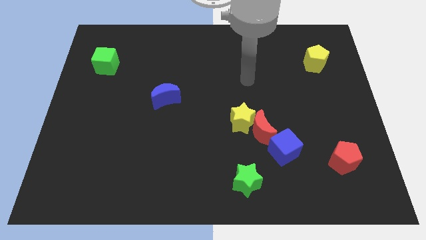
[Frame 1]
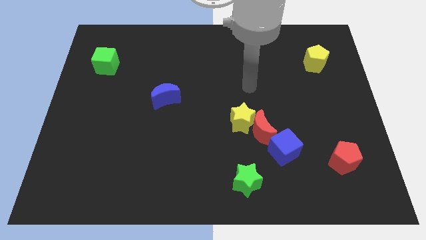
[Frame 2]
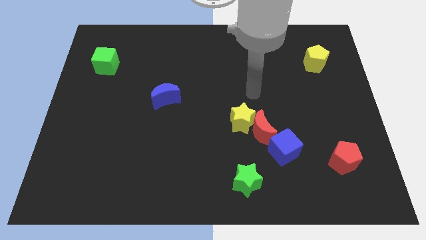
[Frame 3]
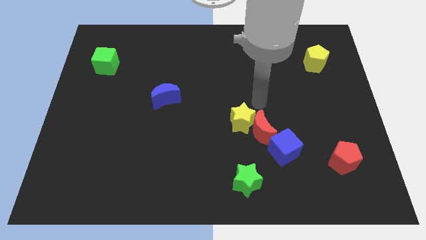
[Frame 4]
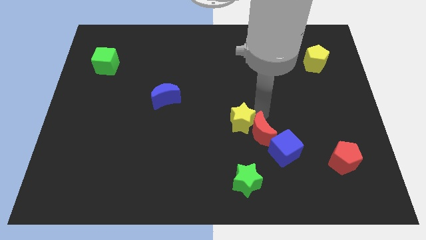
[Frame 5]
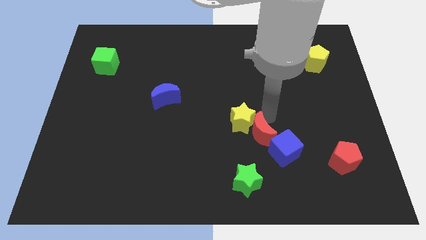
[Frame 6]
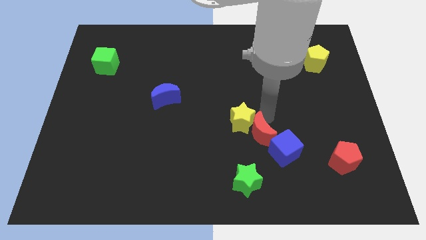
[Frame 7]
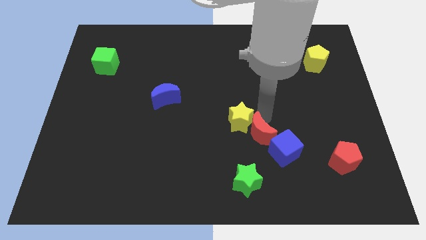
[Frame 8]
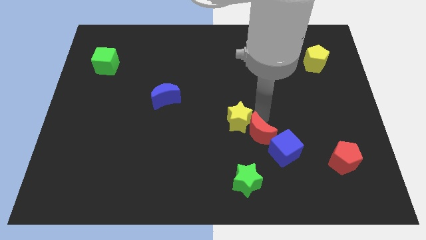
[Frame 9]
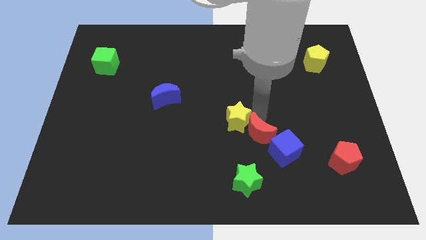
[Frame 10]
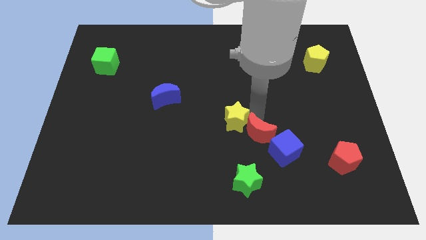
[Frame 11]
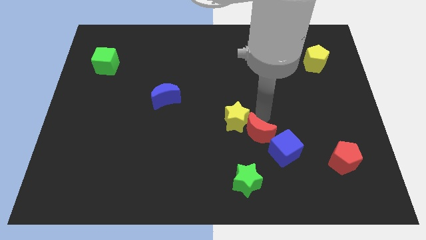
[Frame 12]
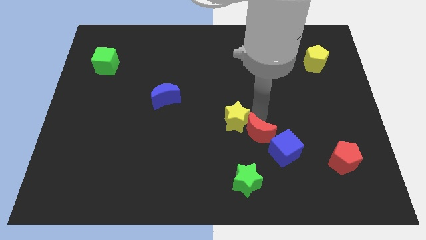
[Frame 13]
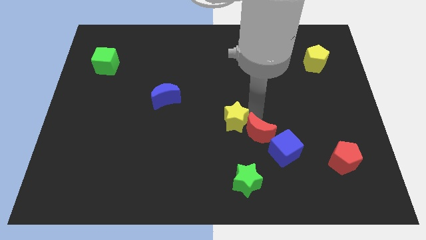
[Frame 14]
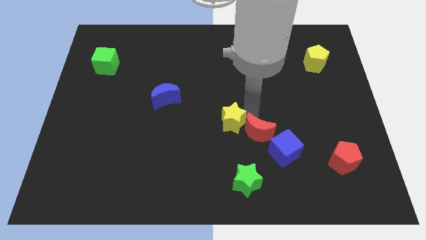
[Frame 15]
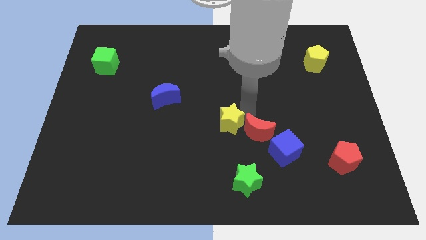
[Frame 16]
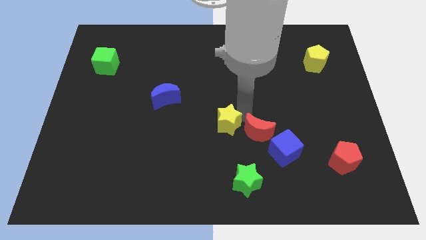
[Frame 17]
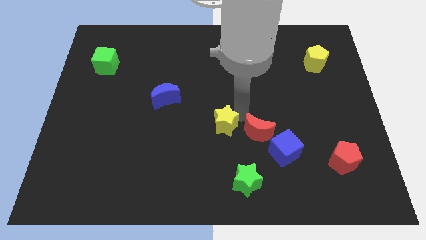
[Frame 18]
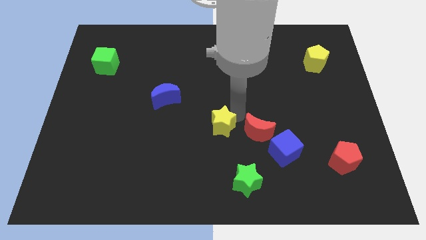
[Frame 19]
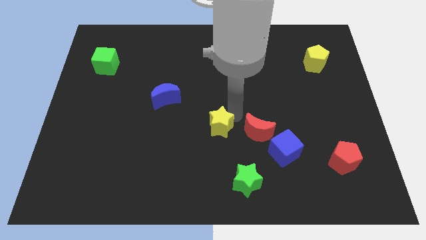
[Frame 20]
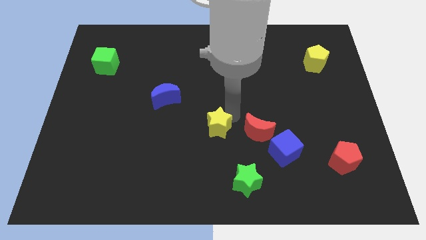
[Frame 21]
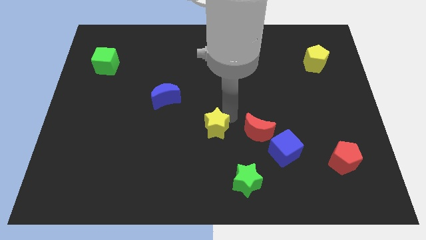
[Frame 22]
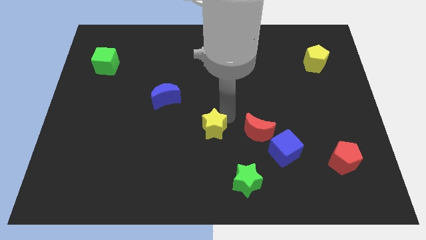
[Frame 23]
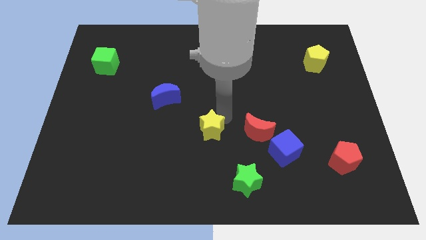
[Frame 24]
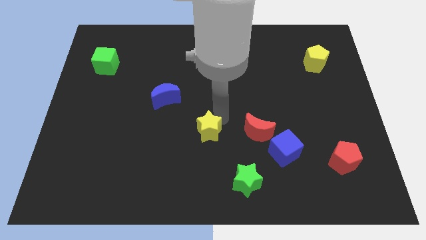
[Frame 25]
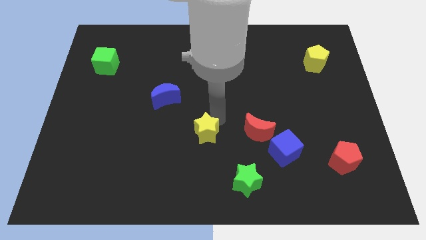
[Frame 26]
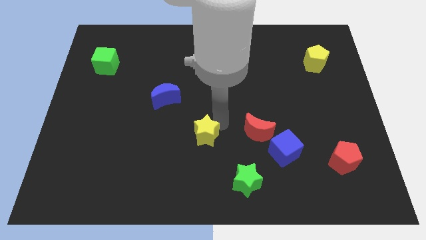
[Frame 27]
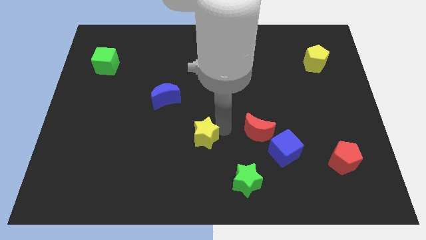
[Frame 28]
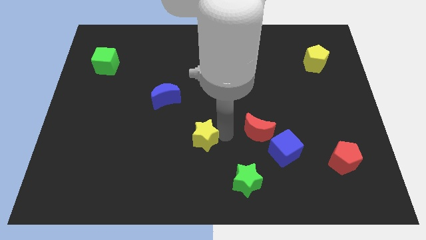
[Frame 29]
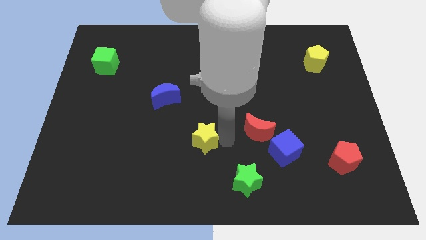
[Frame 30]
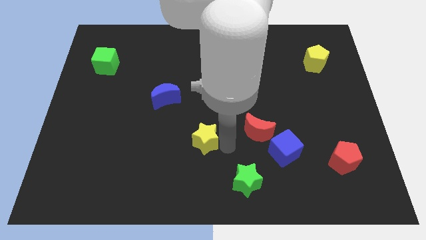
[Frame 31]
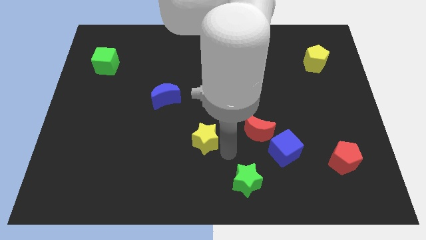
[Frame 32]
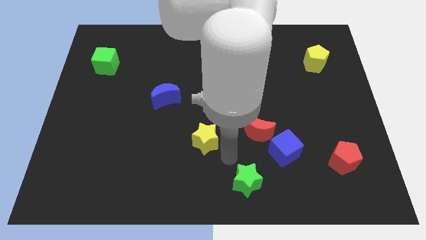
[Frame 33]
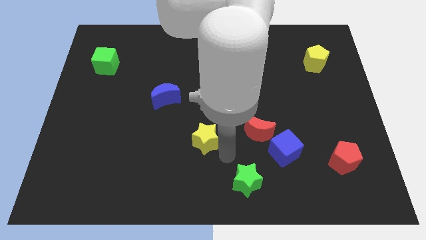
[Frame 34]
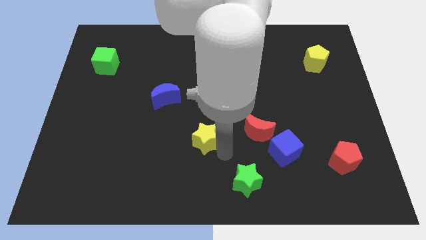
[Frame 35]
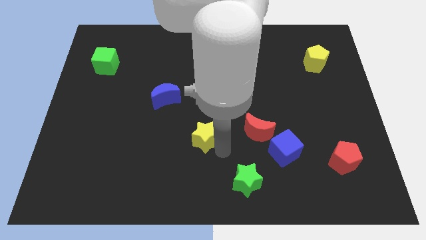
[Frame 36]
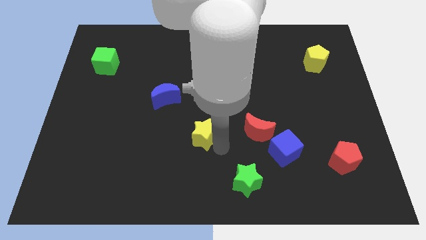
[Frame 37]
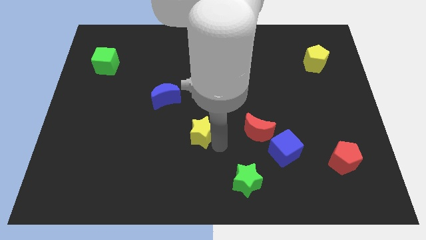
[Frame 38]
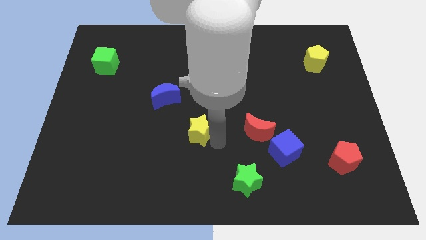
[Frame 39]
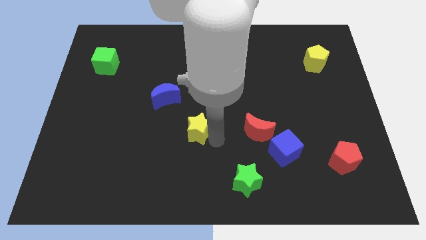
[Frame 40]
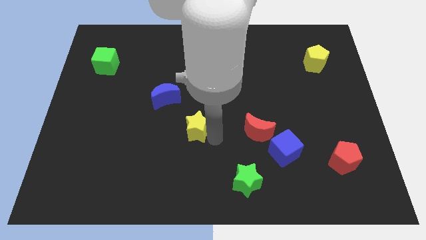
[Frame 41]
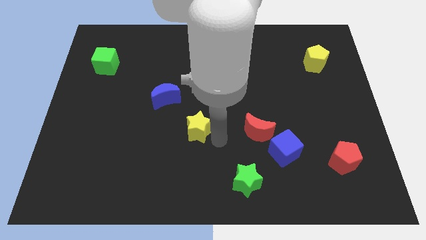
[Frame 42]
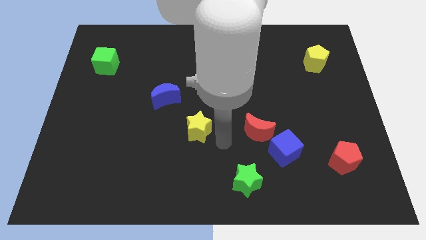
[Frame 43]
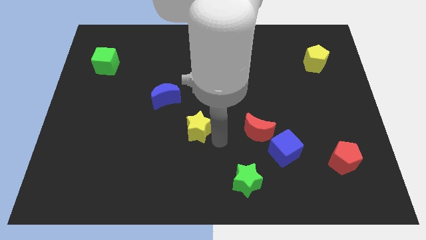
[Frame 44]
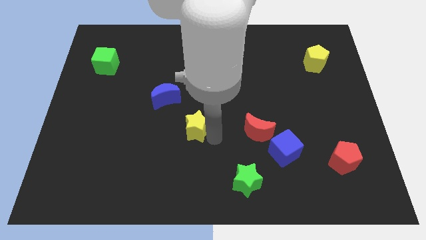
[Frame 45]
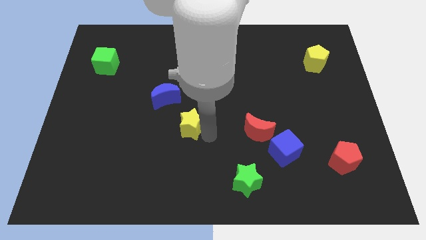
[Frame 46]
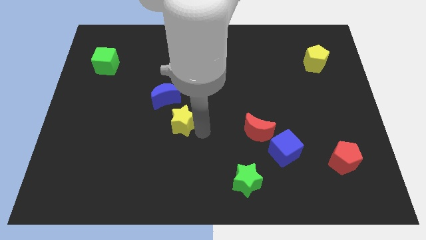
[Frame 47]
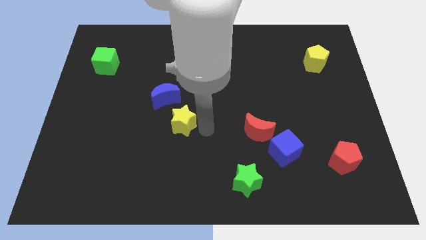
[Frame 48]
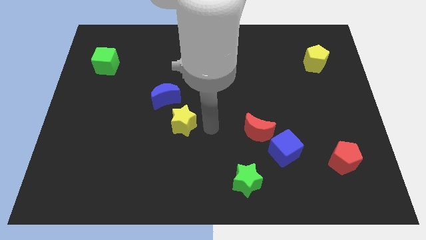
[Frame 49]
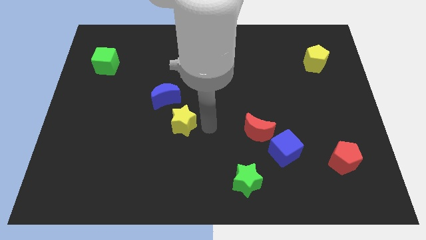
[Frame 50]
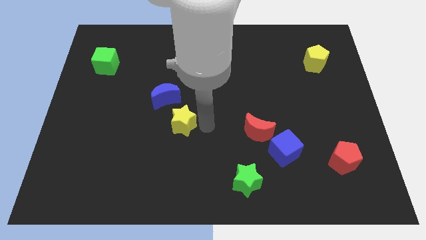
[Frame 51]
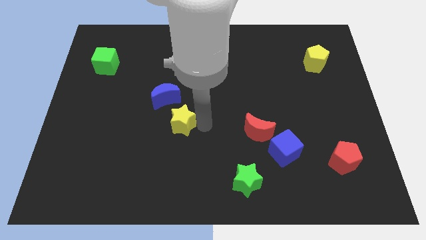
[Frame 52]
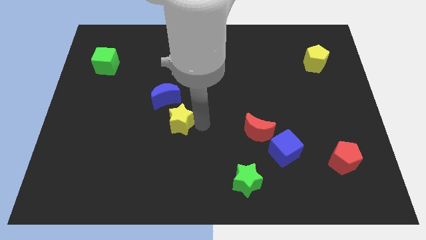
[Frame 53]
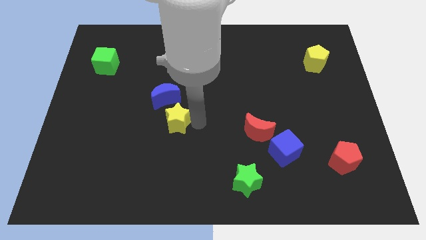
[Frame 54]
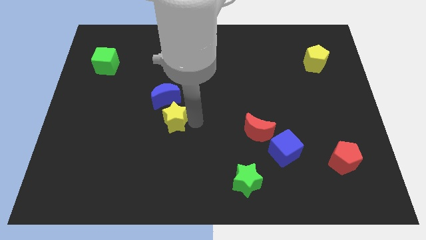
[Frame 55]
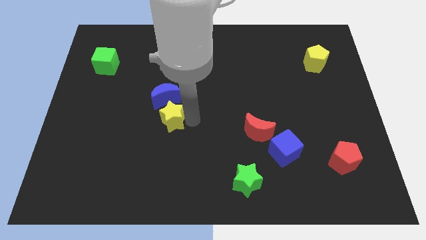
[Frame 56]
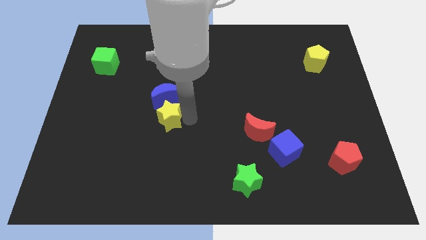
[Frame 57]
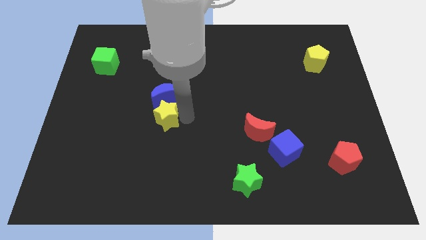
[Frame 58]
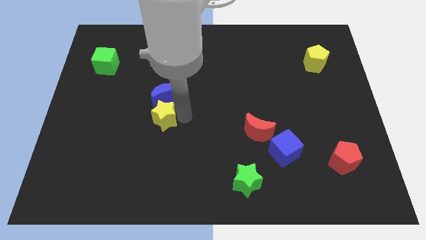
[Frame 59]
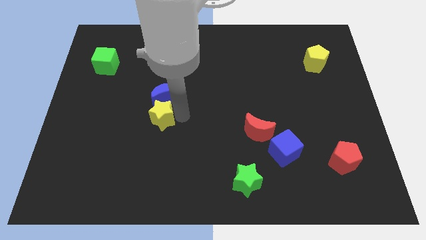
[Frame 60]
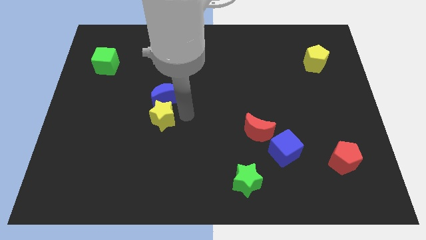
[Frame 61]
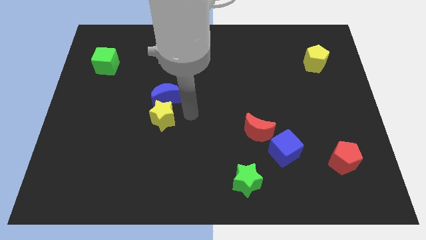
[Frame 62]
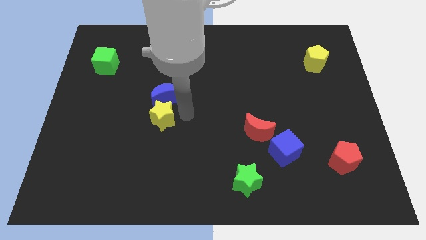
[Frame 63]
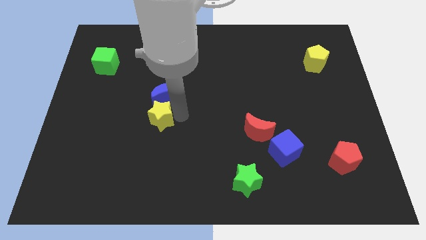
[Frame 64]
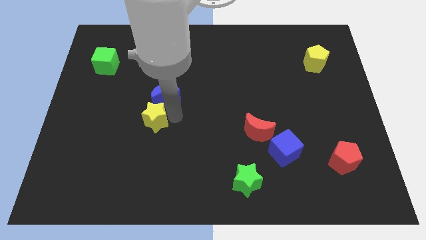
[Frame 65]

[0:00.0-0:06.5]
push the yellow star to the left

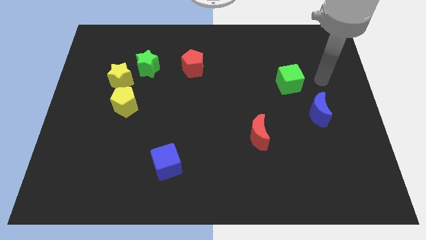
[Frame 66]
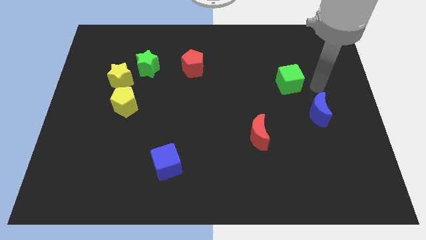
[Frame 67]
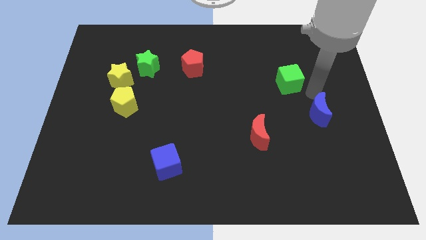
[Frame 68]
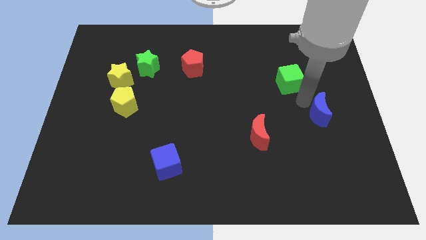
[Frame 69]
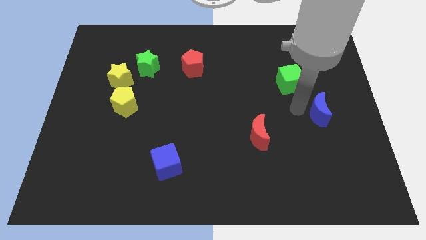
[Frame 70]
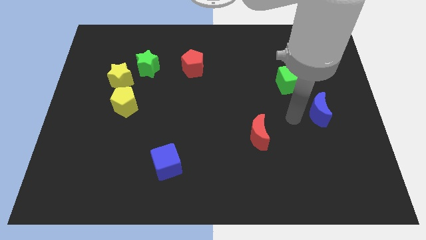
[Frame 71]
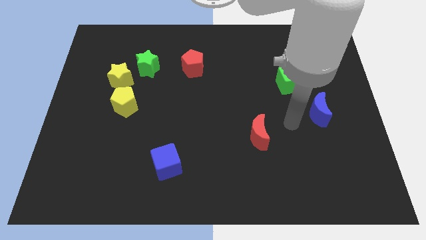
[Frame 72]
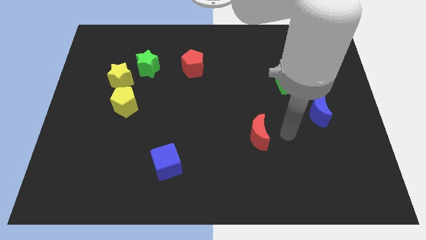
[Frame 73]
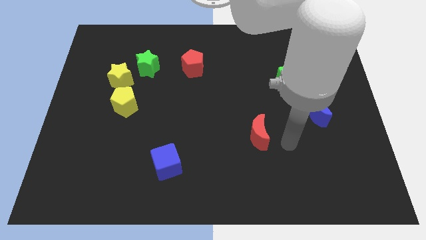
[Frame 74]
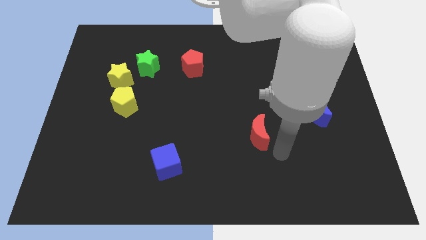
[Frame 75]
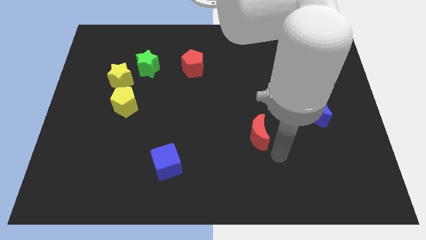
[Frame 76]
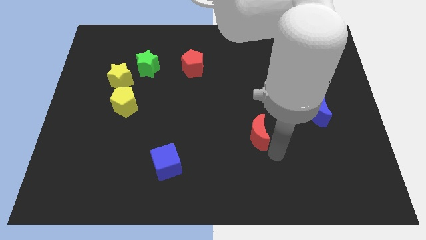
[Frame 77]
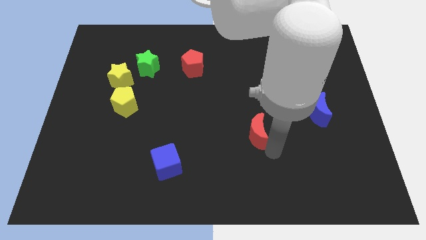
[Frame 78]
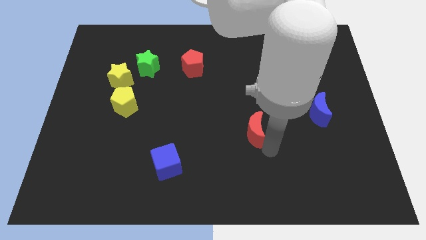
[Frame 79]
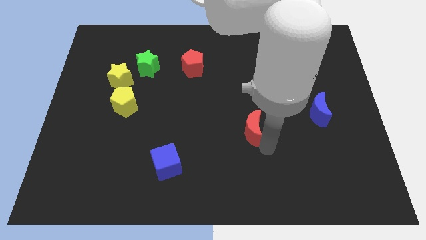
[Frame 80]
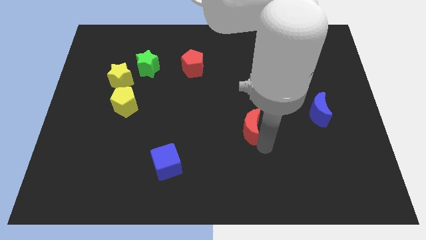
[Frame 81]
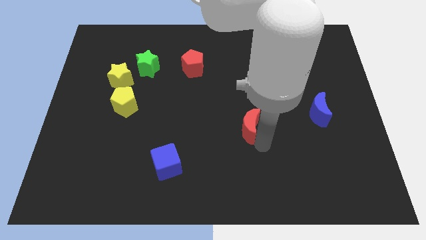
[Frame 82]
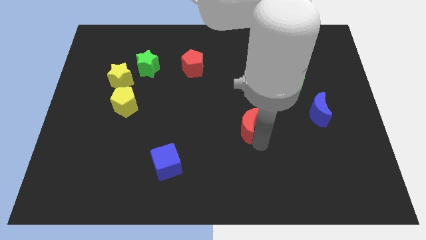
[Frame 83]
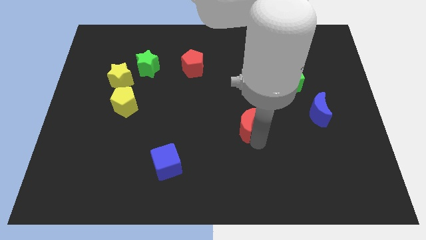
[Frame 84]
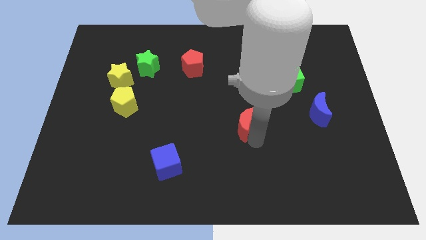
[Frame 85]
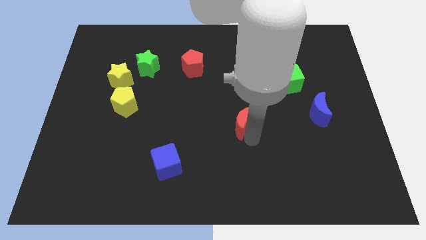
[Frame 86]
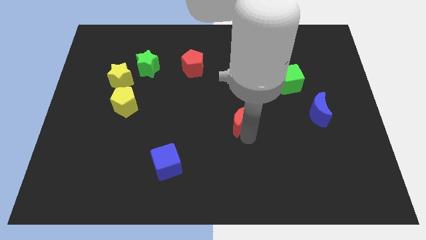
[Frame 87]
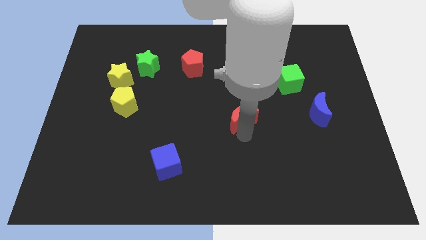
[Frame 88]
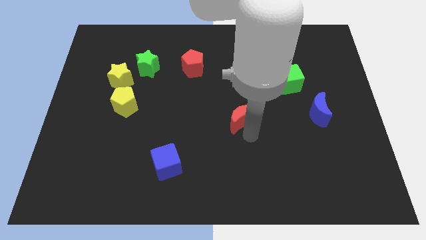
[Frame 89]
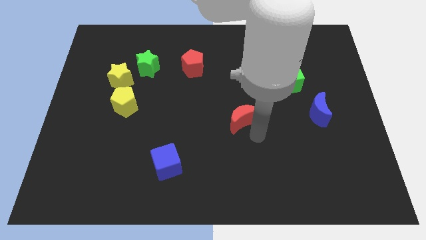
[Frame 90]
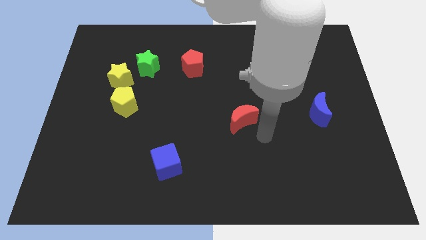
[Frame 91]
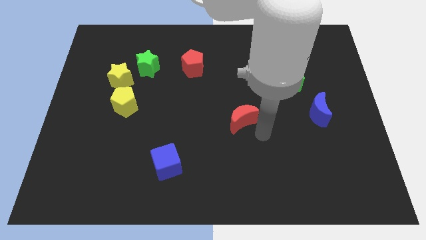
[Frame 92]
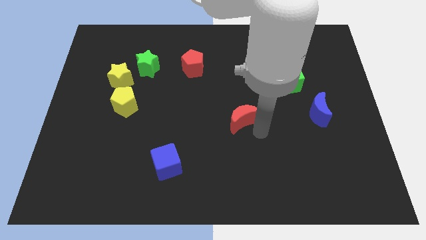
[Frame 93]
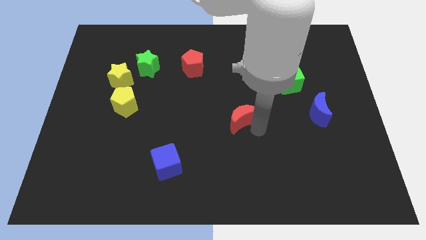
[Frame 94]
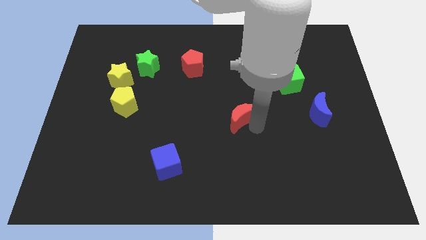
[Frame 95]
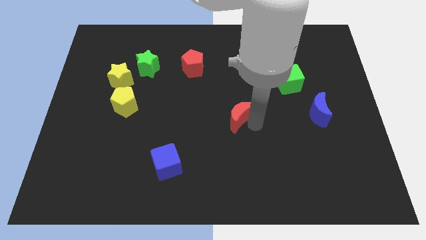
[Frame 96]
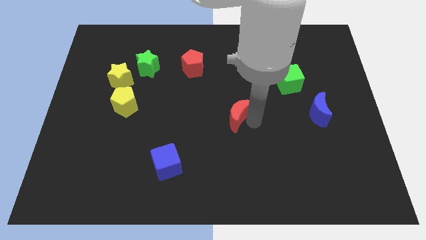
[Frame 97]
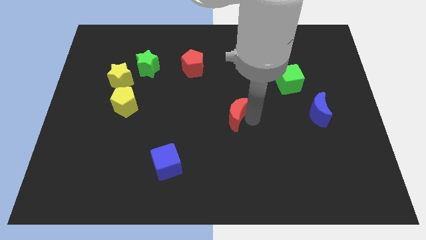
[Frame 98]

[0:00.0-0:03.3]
move the red moon diagonally upwards and left slightly
